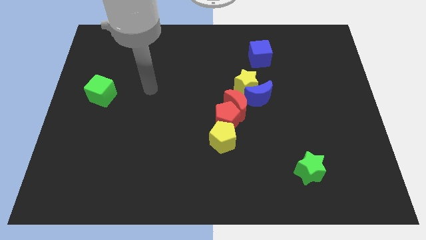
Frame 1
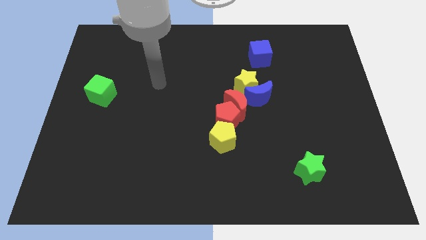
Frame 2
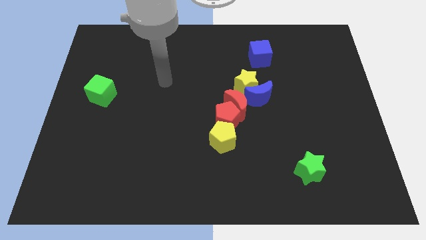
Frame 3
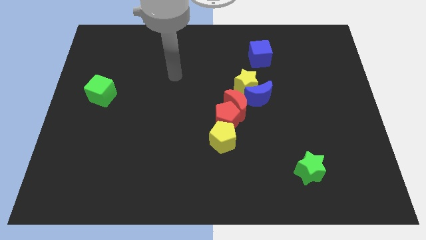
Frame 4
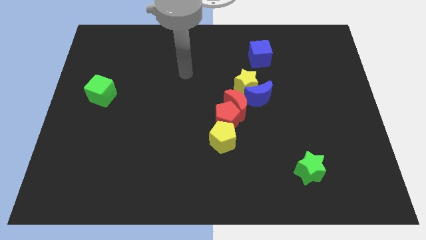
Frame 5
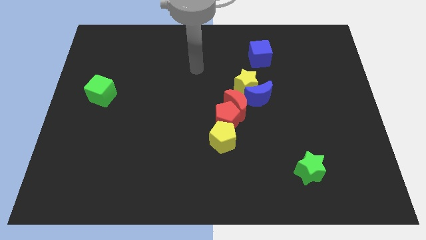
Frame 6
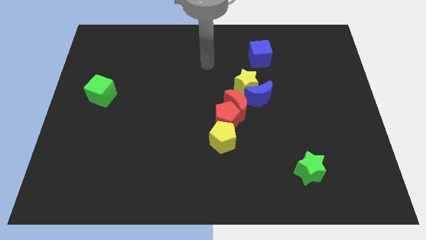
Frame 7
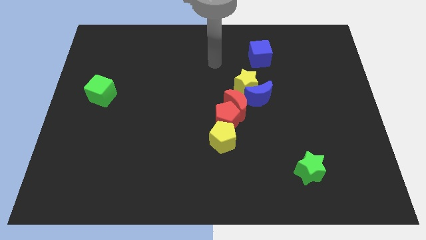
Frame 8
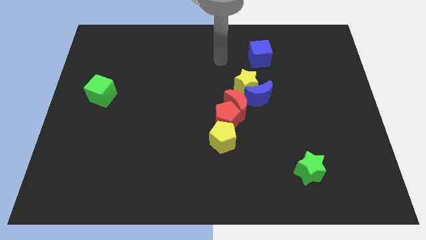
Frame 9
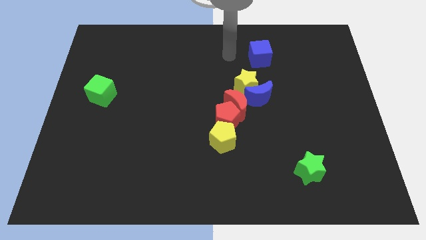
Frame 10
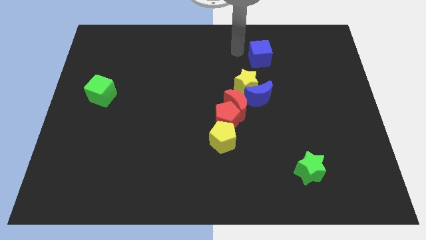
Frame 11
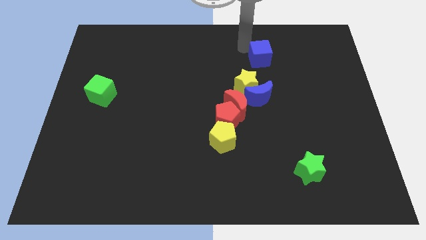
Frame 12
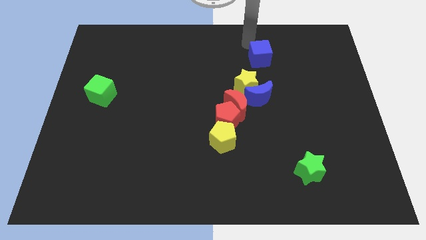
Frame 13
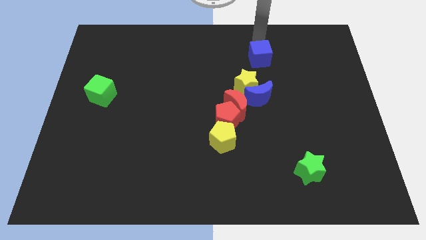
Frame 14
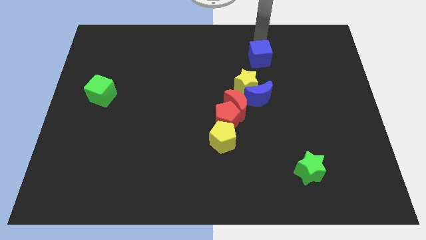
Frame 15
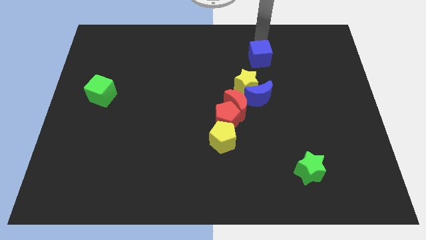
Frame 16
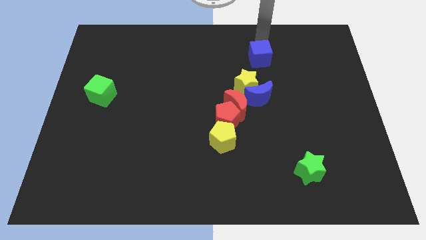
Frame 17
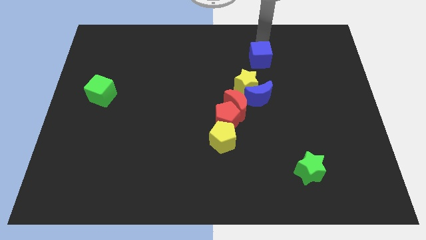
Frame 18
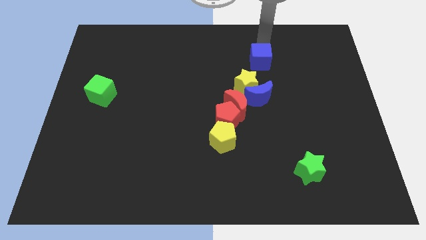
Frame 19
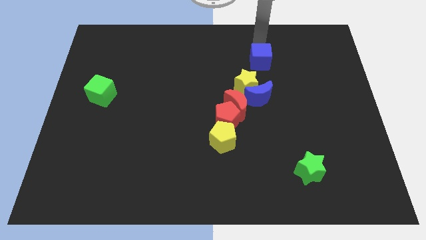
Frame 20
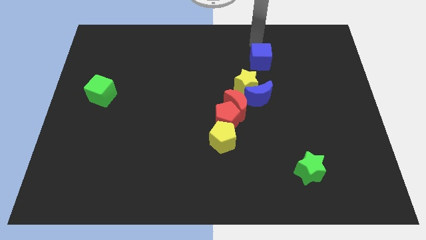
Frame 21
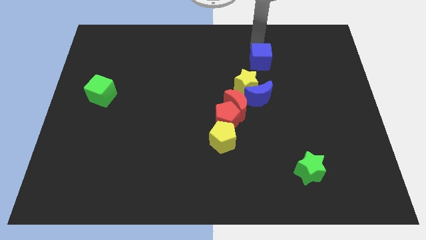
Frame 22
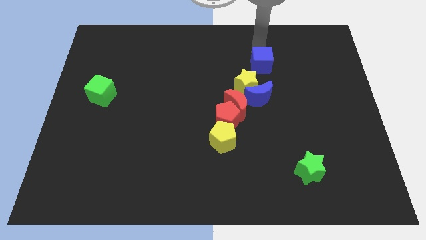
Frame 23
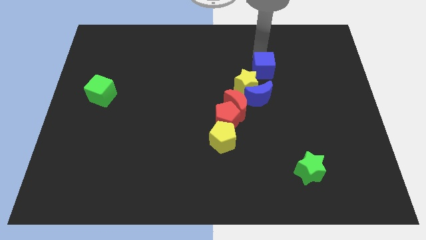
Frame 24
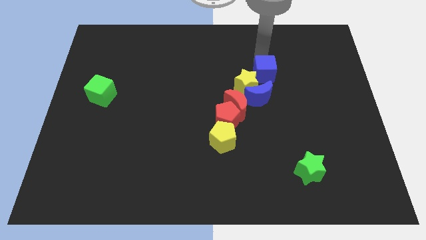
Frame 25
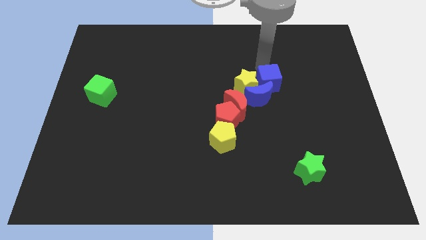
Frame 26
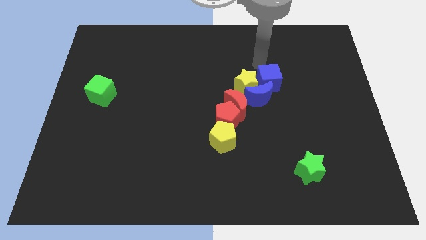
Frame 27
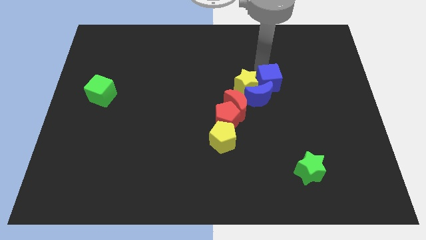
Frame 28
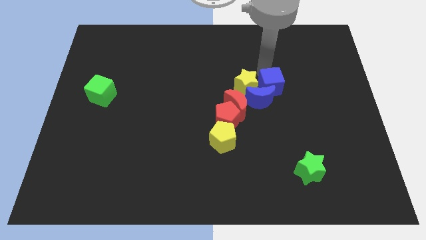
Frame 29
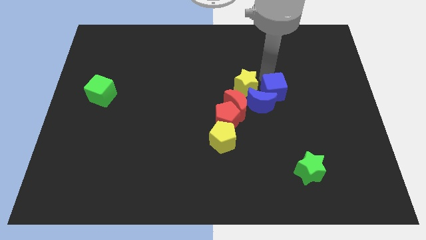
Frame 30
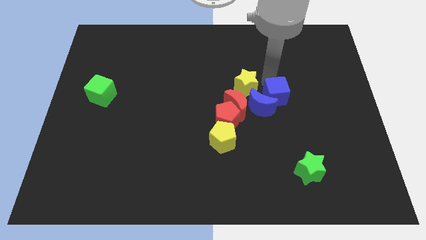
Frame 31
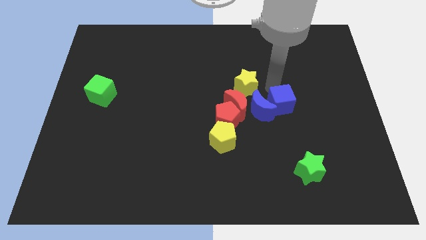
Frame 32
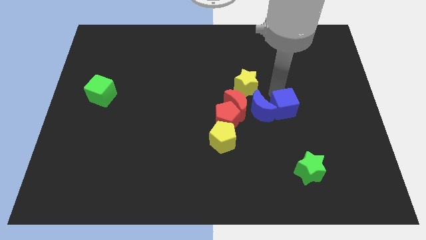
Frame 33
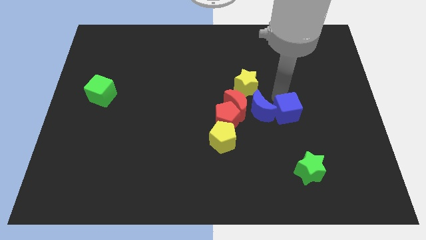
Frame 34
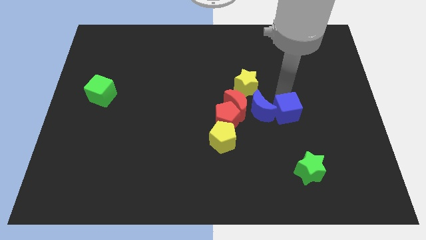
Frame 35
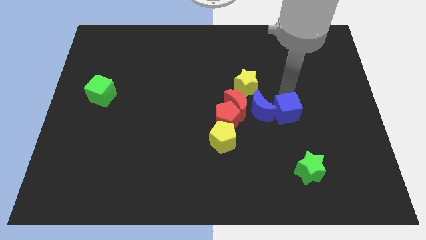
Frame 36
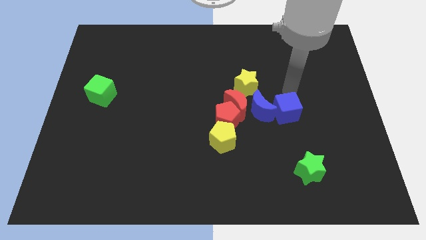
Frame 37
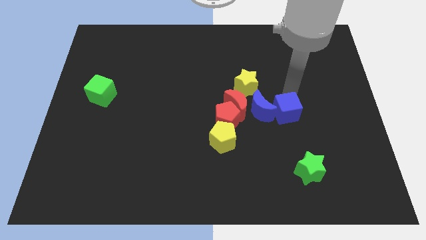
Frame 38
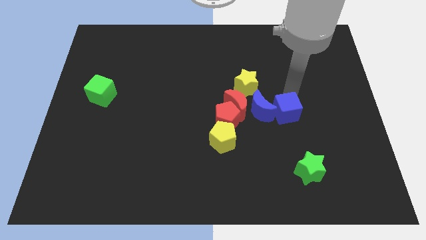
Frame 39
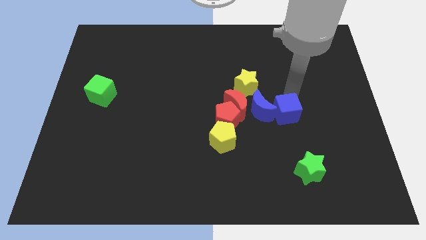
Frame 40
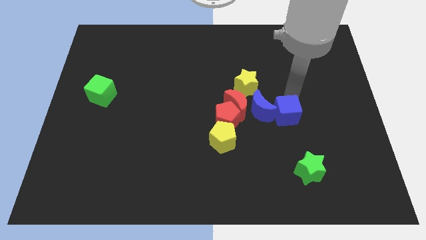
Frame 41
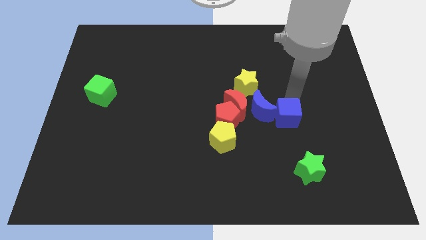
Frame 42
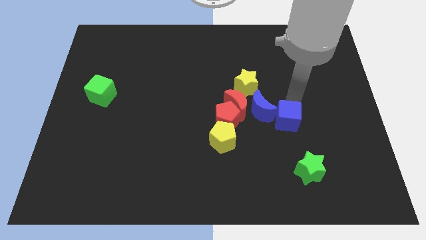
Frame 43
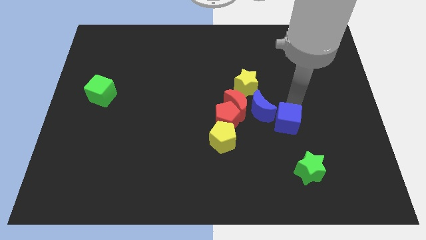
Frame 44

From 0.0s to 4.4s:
move the blue cube down

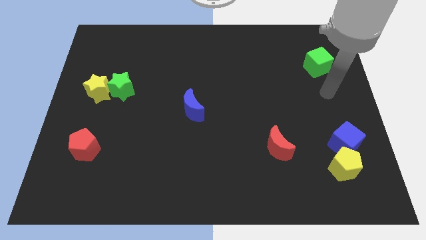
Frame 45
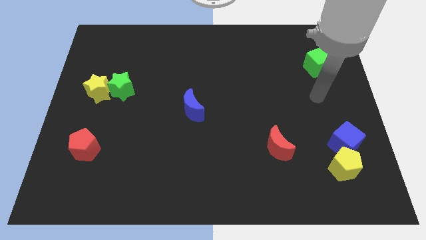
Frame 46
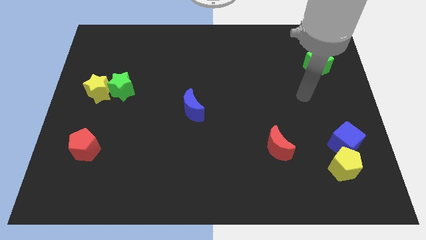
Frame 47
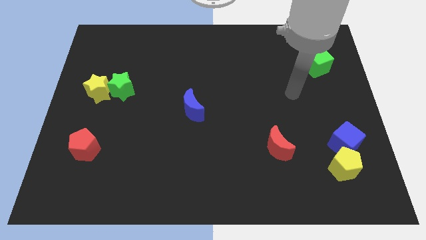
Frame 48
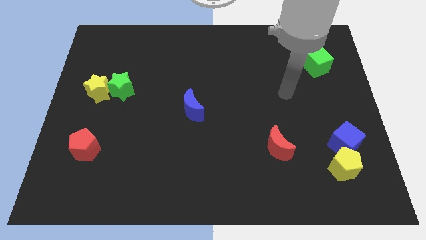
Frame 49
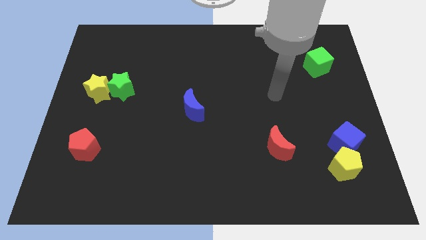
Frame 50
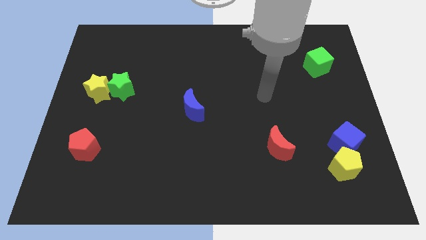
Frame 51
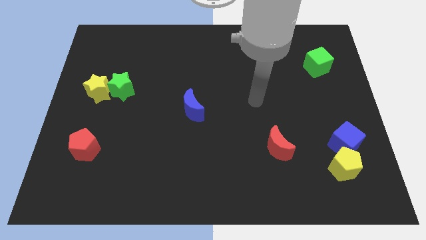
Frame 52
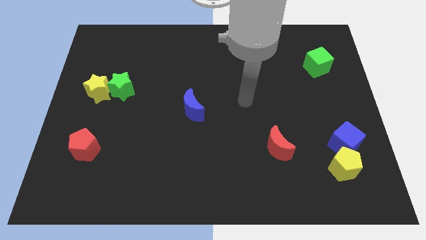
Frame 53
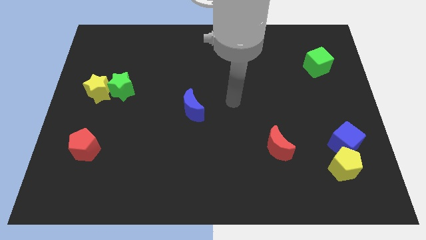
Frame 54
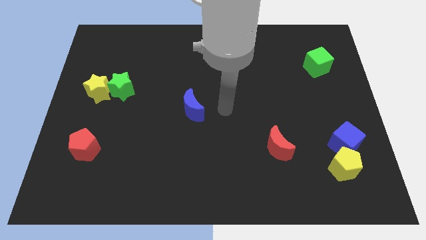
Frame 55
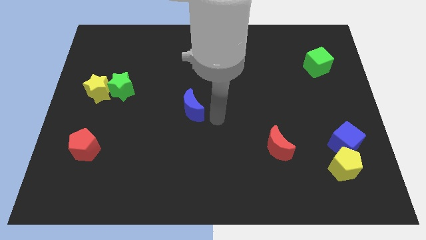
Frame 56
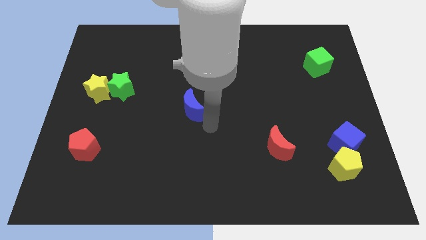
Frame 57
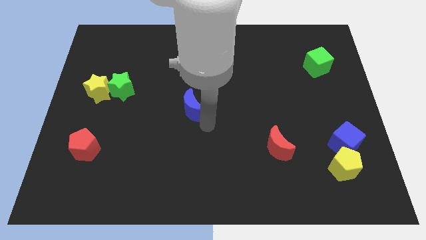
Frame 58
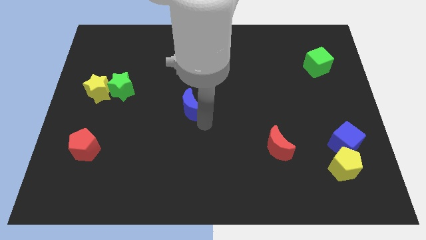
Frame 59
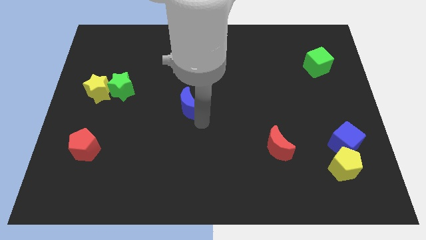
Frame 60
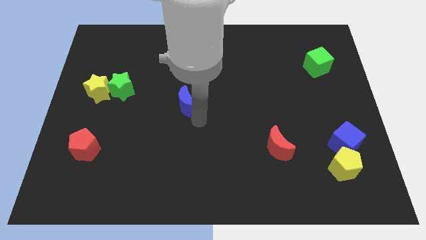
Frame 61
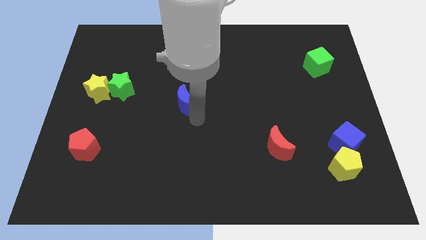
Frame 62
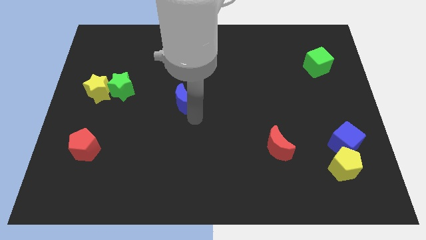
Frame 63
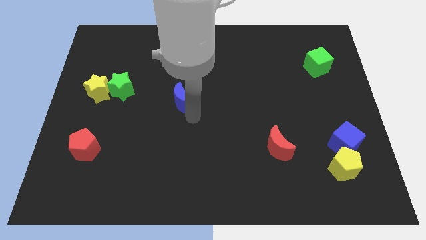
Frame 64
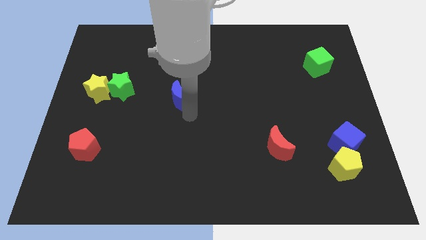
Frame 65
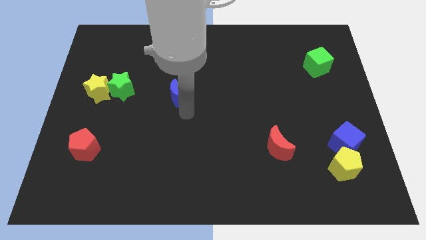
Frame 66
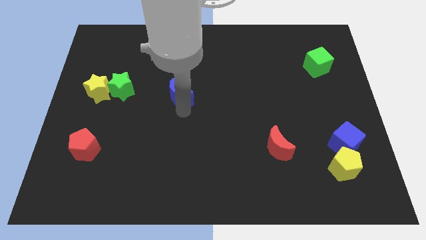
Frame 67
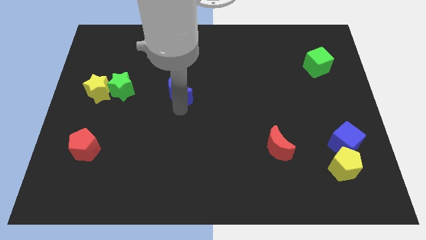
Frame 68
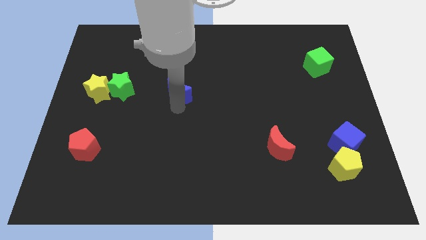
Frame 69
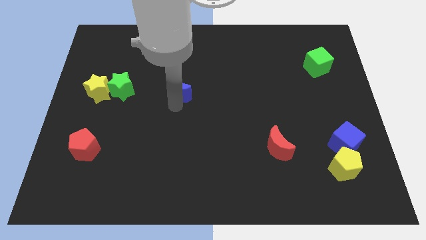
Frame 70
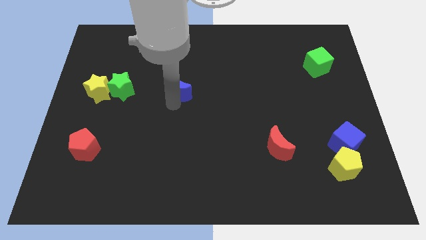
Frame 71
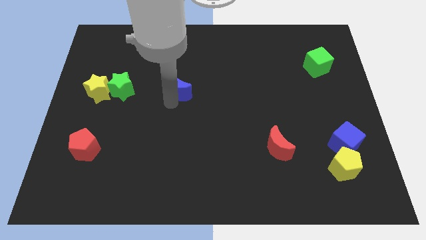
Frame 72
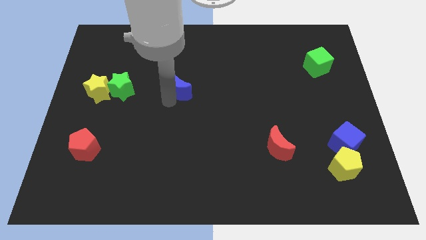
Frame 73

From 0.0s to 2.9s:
move the blue moon up and to the left diagonally somewhat

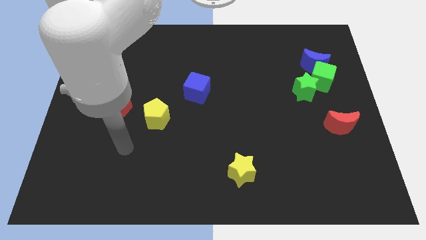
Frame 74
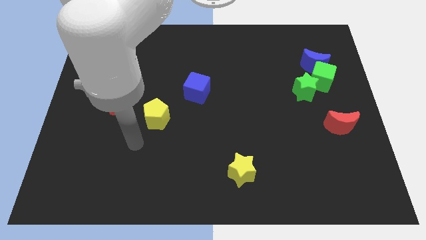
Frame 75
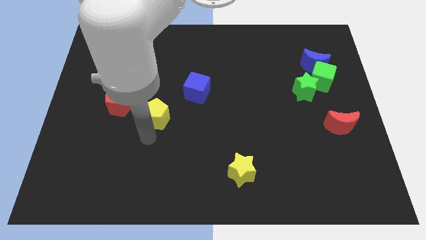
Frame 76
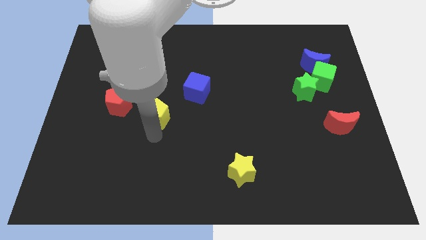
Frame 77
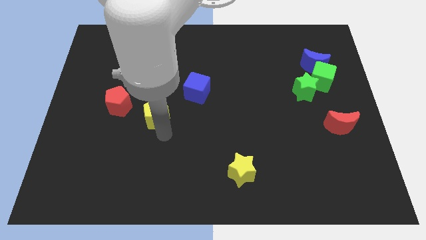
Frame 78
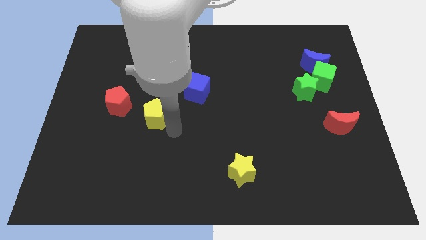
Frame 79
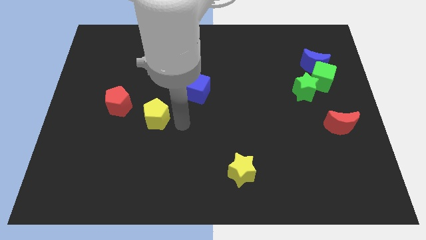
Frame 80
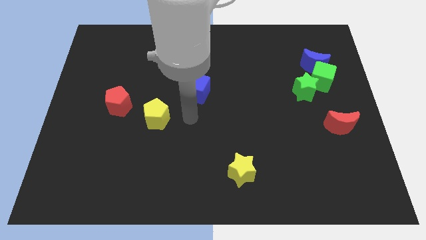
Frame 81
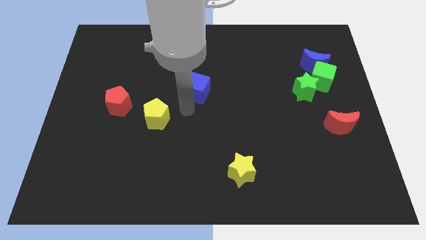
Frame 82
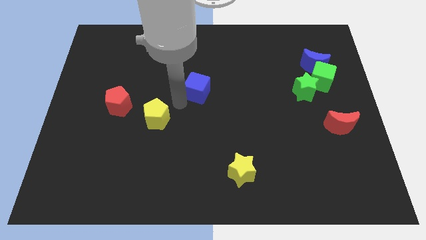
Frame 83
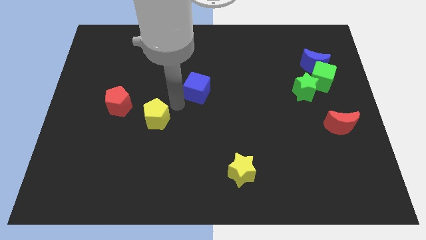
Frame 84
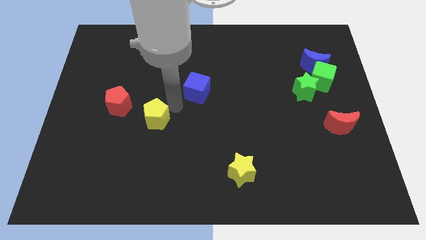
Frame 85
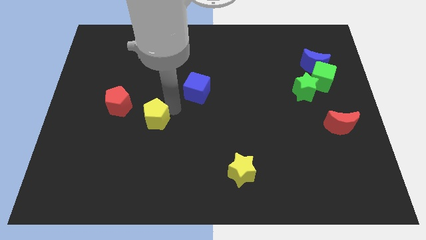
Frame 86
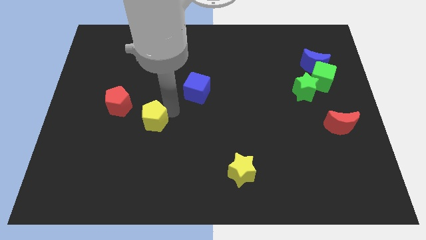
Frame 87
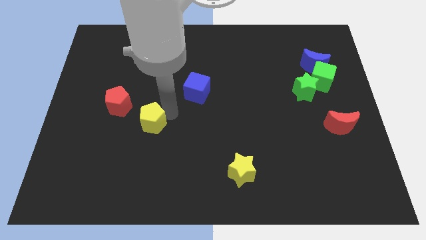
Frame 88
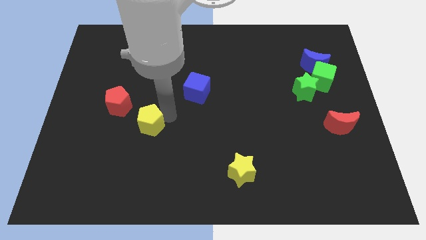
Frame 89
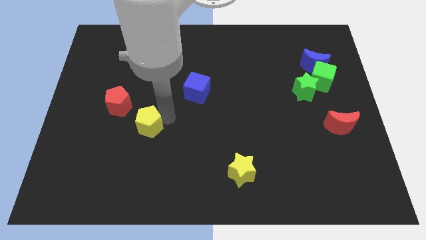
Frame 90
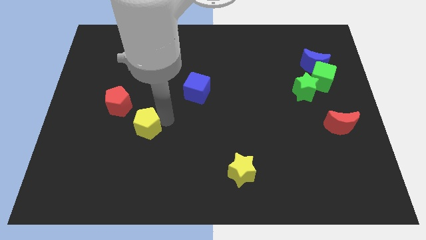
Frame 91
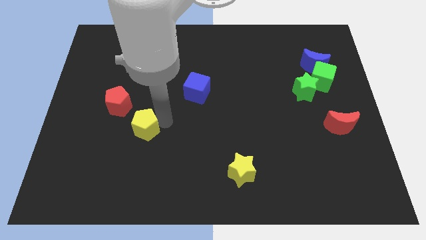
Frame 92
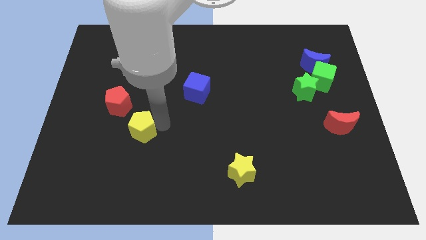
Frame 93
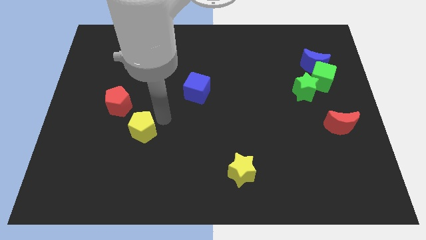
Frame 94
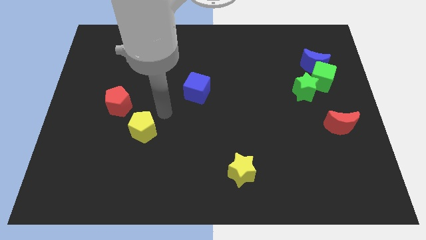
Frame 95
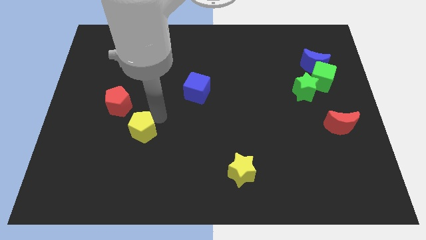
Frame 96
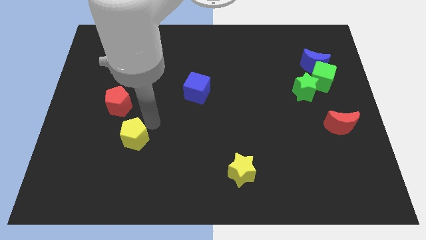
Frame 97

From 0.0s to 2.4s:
push the yellow pentagon a bit diagonally down and left
